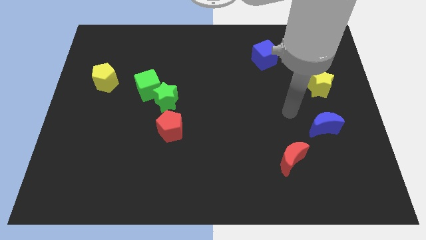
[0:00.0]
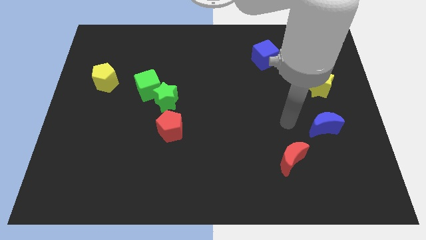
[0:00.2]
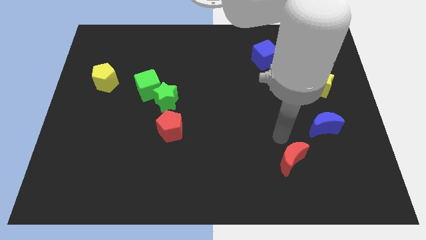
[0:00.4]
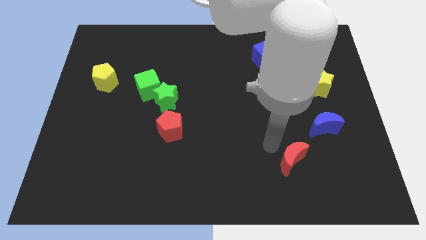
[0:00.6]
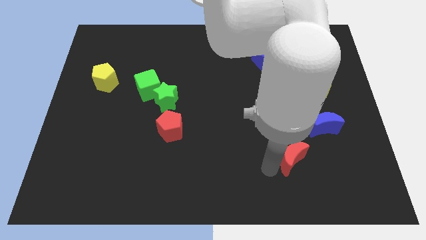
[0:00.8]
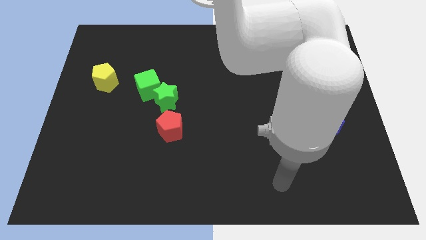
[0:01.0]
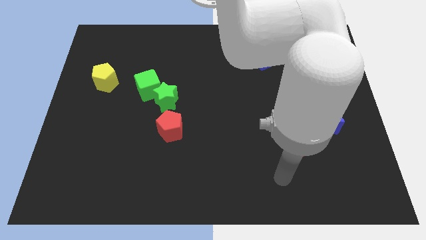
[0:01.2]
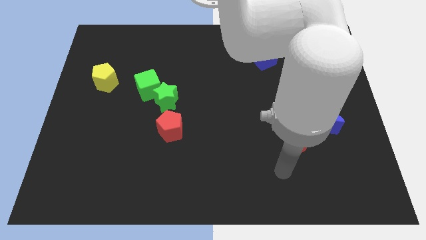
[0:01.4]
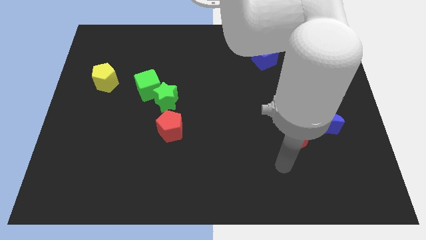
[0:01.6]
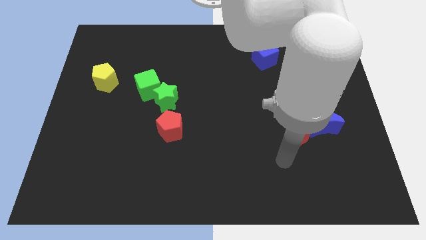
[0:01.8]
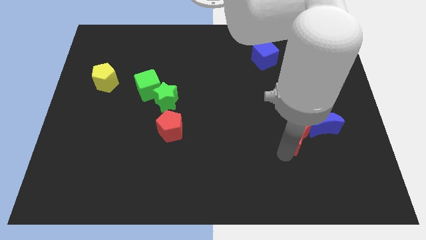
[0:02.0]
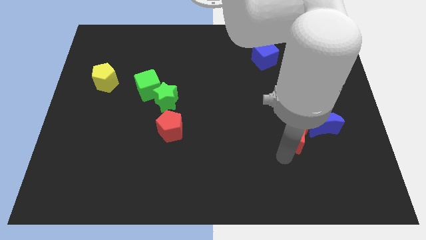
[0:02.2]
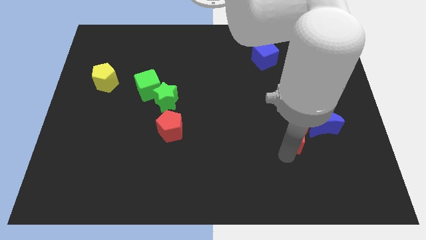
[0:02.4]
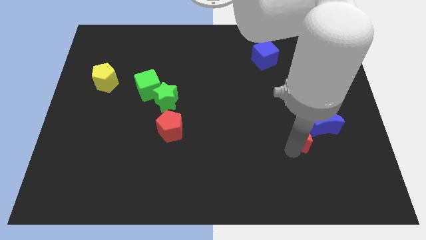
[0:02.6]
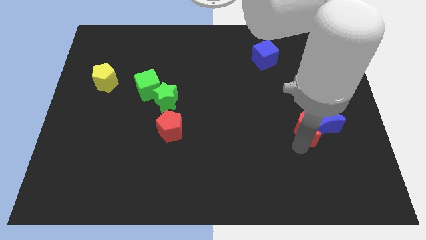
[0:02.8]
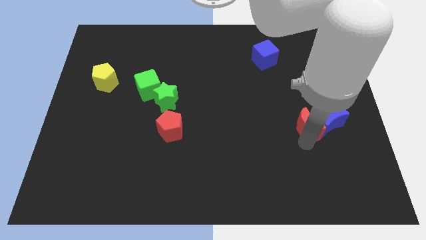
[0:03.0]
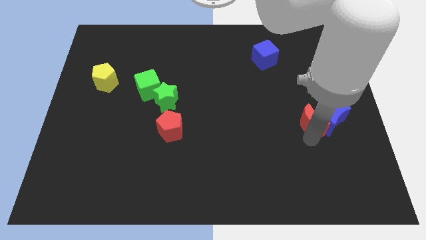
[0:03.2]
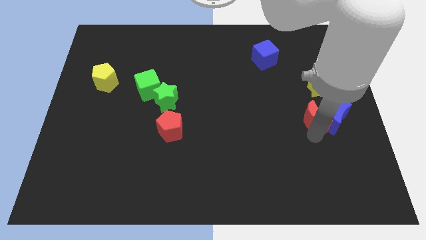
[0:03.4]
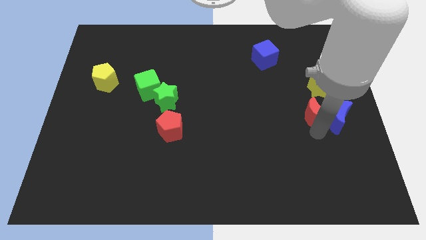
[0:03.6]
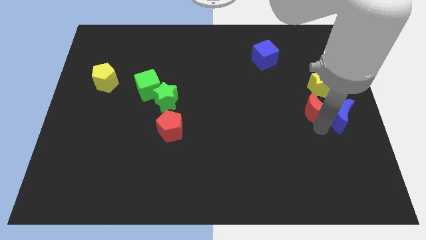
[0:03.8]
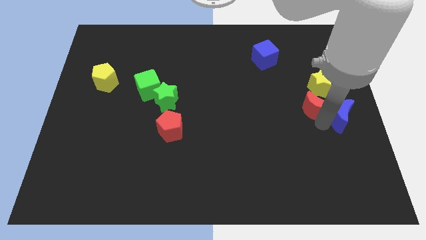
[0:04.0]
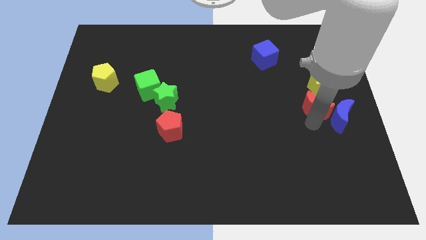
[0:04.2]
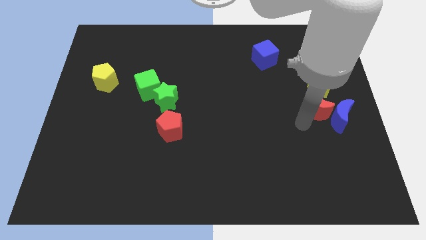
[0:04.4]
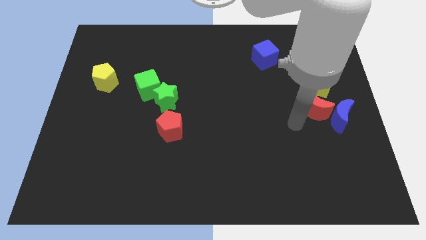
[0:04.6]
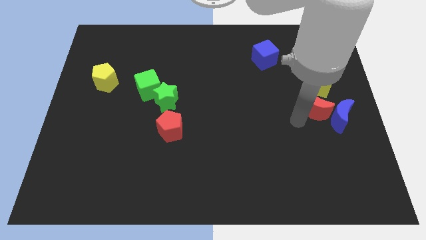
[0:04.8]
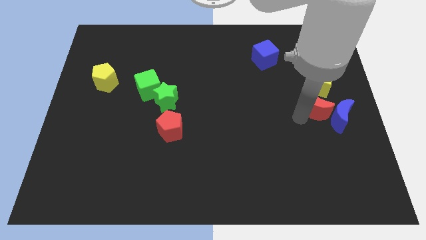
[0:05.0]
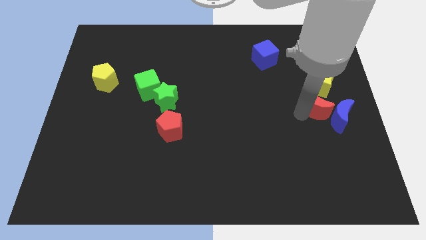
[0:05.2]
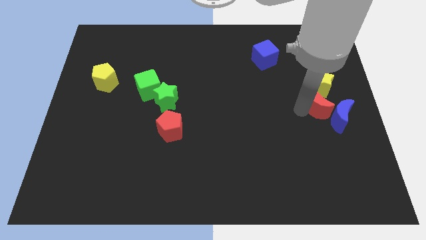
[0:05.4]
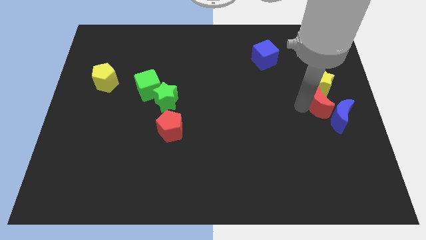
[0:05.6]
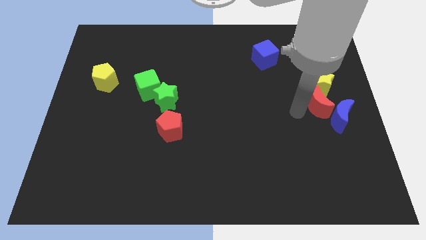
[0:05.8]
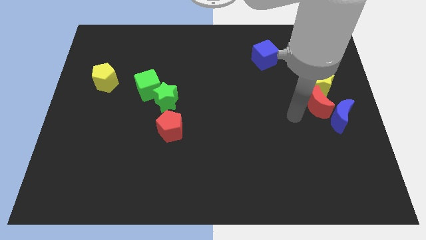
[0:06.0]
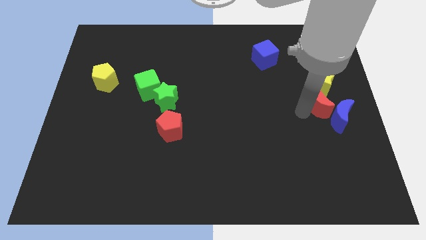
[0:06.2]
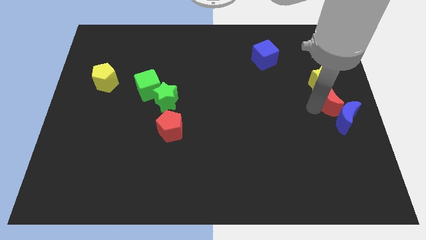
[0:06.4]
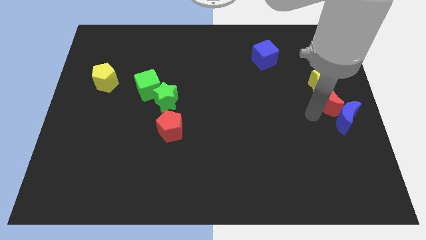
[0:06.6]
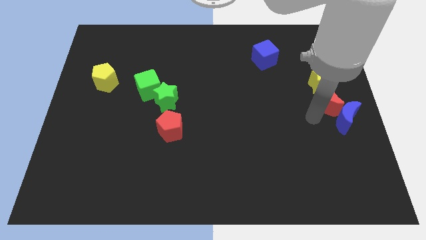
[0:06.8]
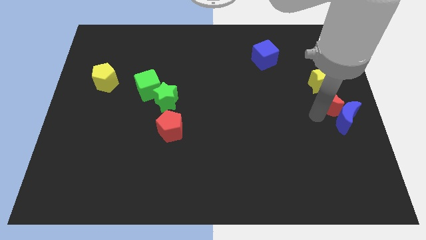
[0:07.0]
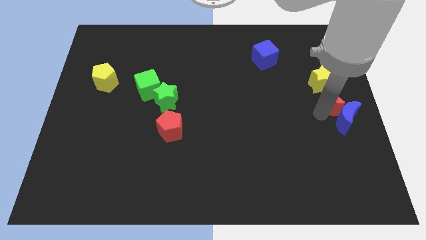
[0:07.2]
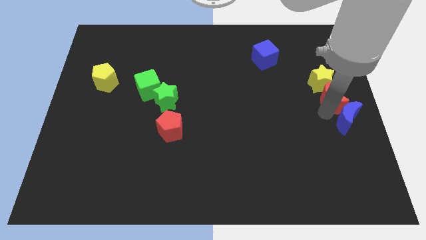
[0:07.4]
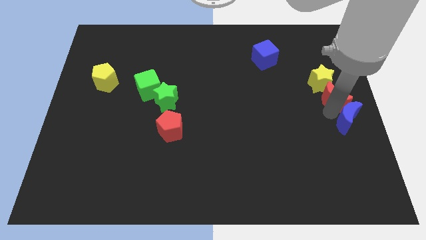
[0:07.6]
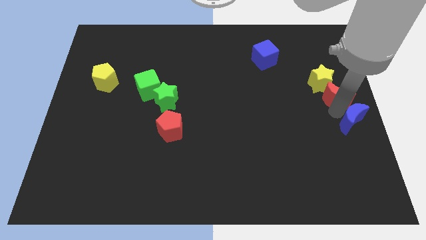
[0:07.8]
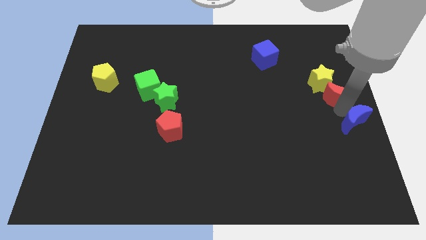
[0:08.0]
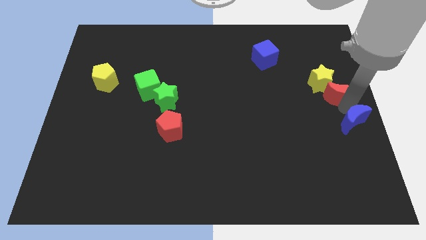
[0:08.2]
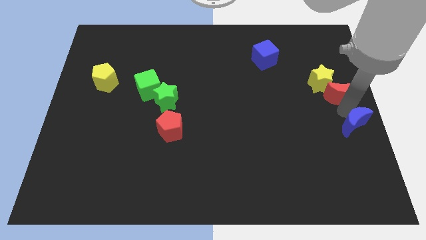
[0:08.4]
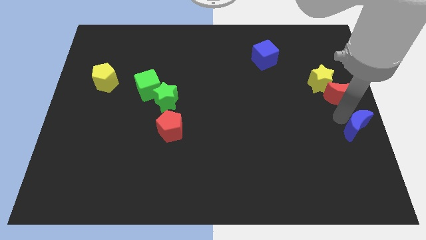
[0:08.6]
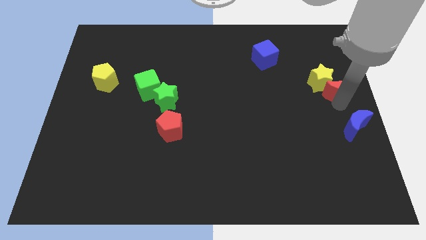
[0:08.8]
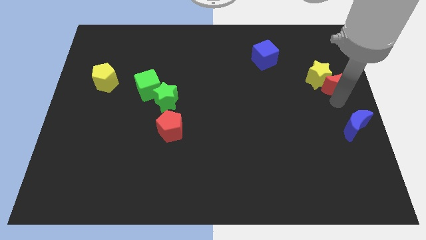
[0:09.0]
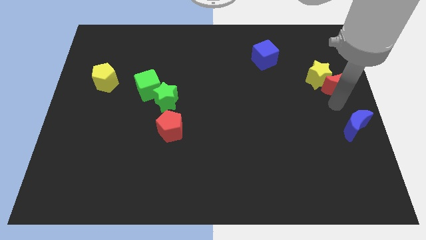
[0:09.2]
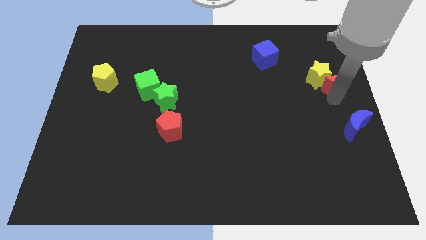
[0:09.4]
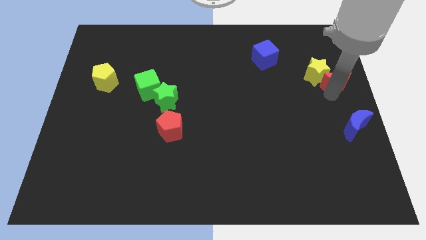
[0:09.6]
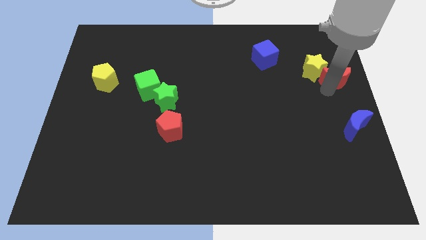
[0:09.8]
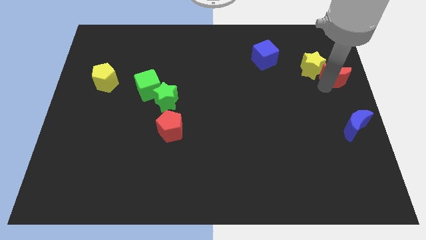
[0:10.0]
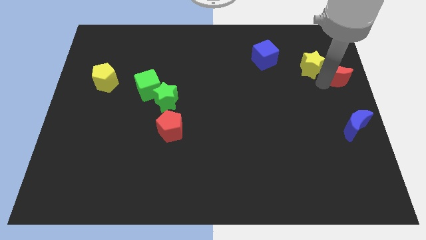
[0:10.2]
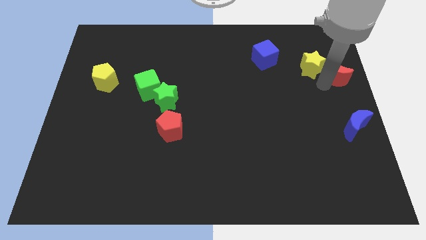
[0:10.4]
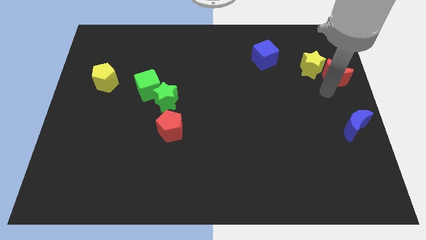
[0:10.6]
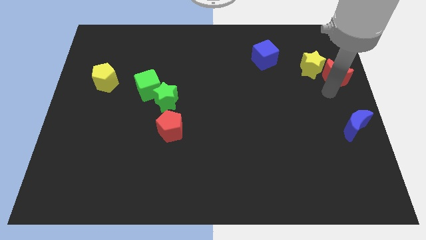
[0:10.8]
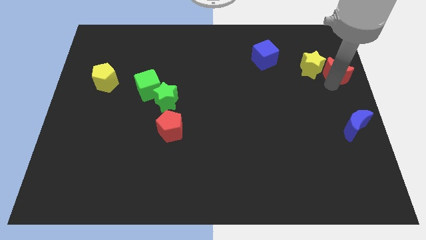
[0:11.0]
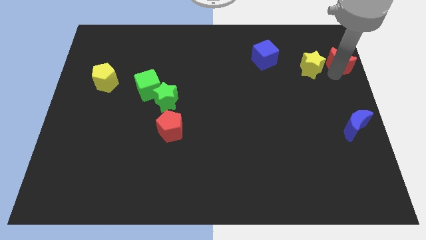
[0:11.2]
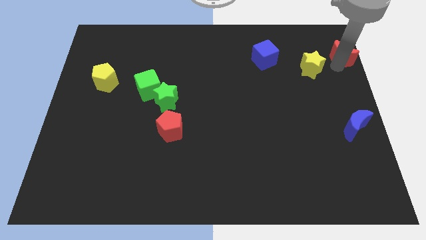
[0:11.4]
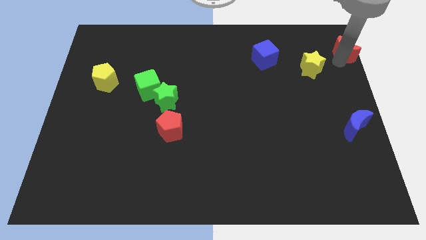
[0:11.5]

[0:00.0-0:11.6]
move the red moon to the upper right corner
